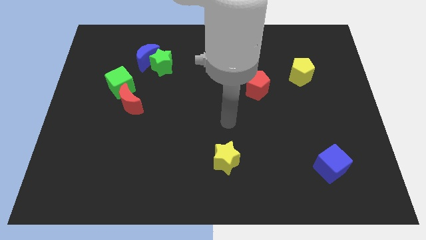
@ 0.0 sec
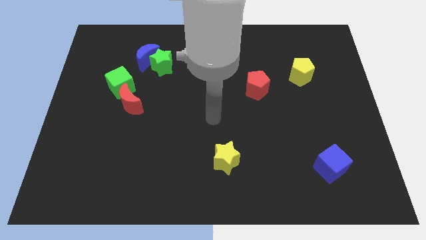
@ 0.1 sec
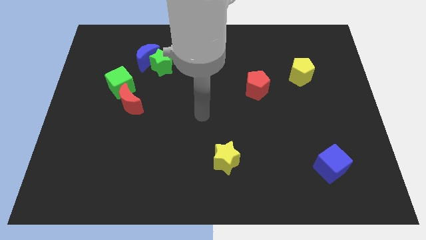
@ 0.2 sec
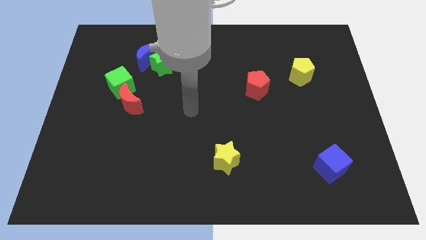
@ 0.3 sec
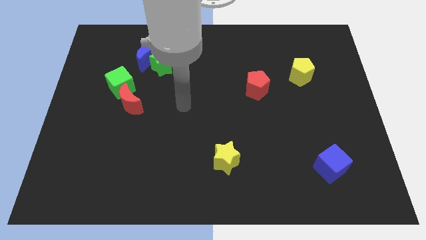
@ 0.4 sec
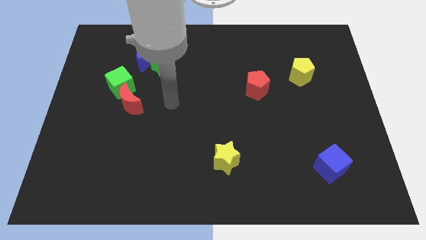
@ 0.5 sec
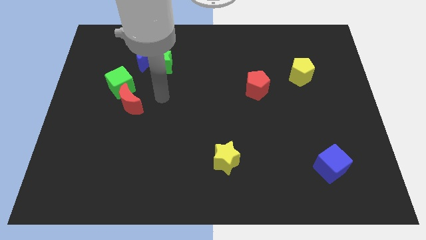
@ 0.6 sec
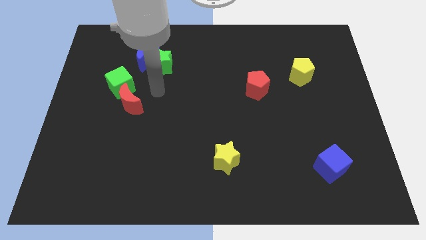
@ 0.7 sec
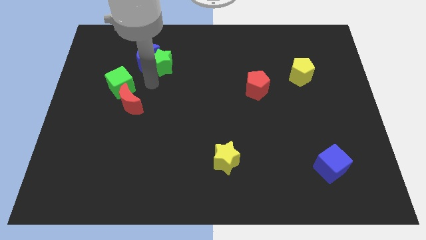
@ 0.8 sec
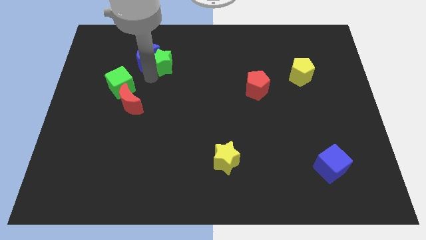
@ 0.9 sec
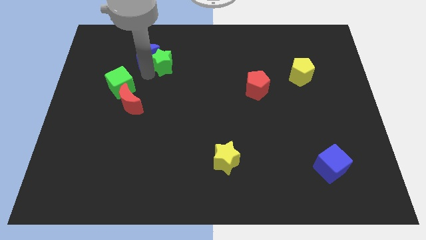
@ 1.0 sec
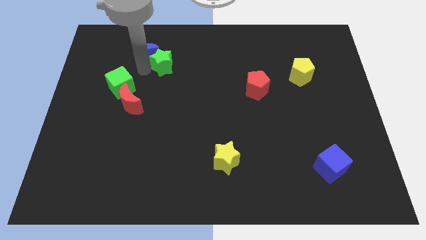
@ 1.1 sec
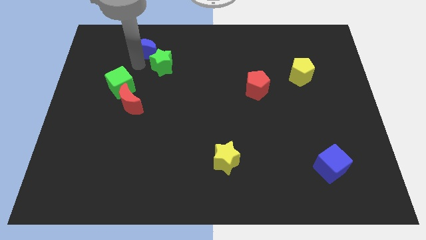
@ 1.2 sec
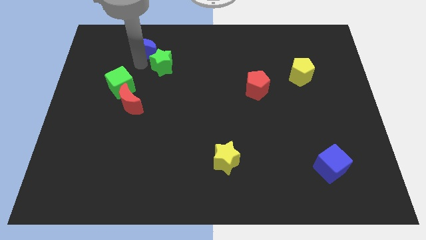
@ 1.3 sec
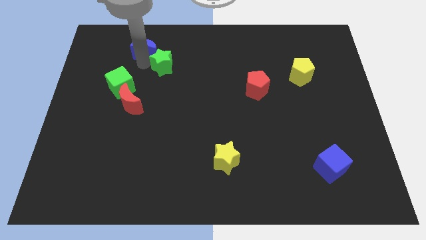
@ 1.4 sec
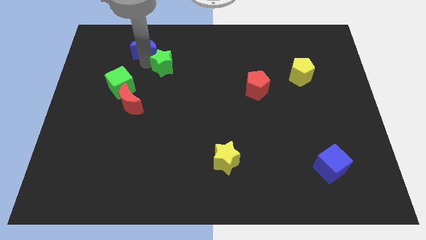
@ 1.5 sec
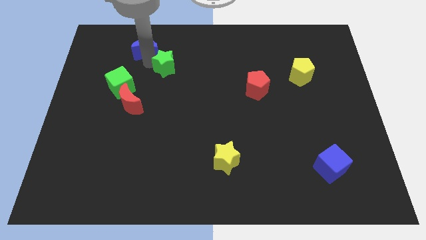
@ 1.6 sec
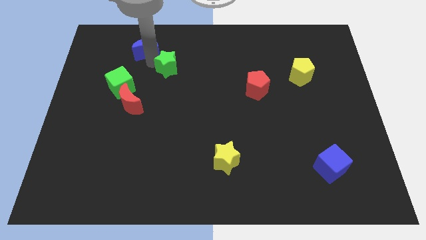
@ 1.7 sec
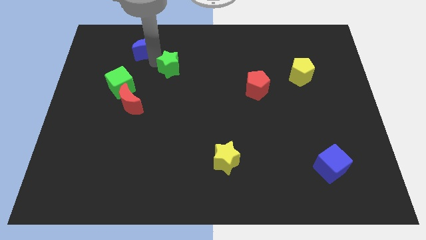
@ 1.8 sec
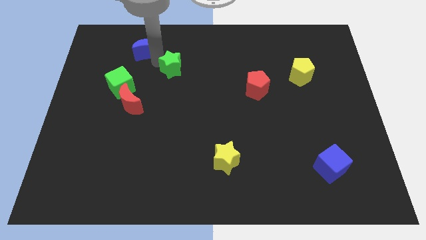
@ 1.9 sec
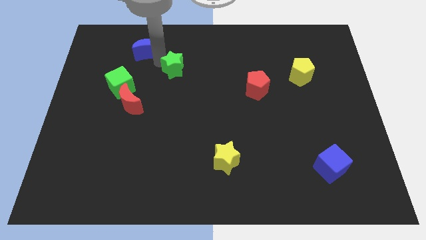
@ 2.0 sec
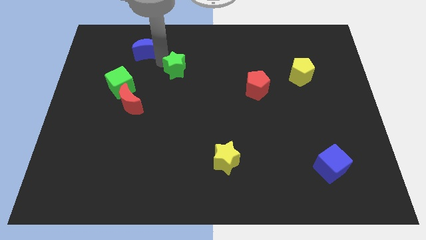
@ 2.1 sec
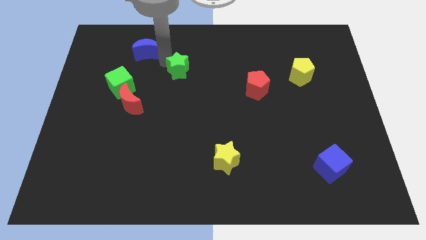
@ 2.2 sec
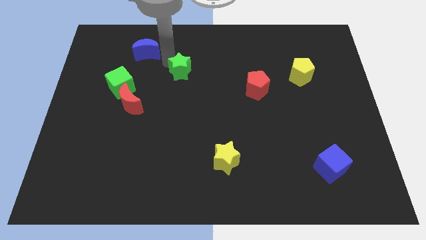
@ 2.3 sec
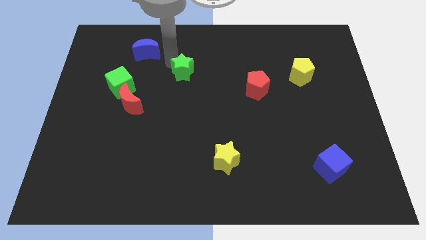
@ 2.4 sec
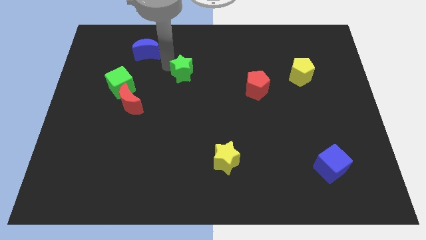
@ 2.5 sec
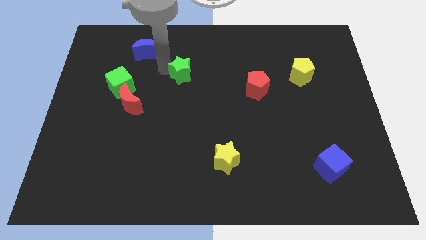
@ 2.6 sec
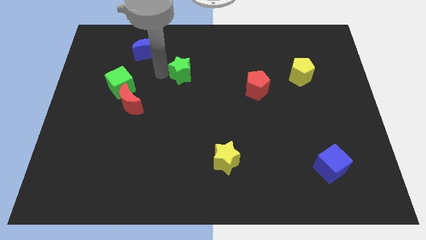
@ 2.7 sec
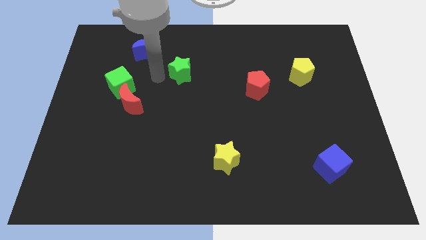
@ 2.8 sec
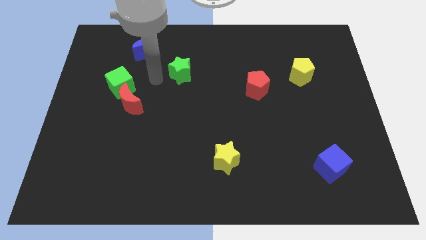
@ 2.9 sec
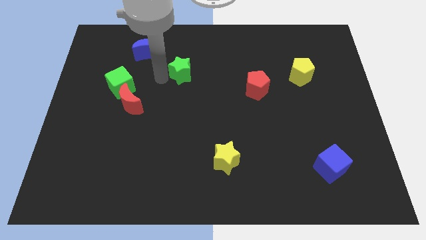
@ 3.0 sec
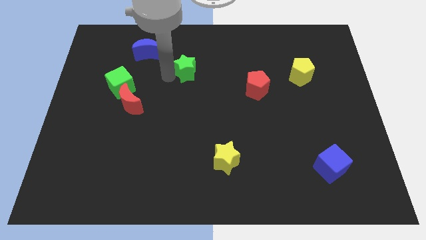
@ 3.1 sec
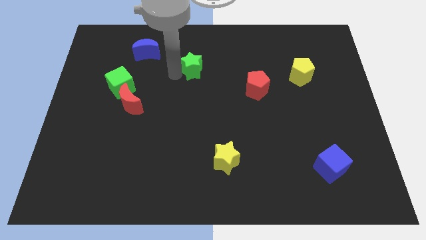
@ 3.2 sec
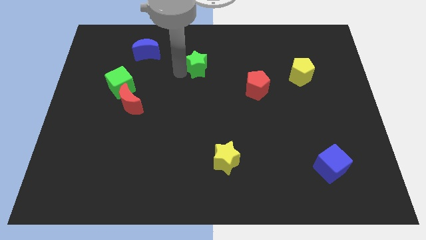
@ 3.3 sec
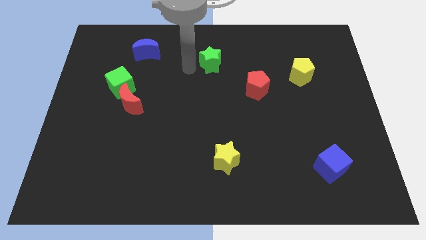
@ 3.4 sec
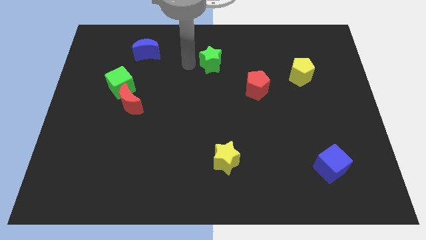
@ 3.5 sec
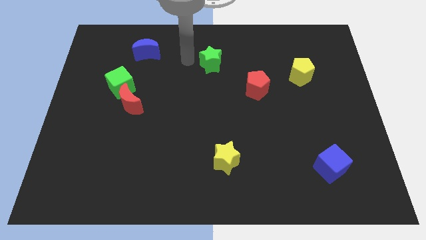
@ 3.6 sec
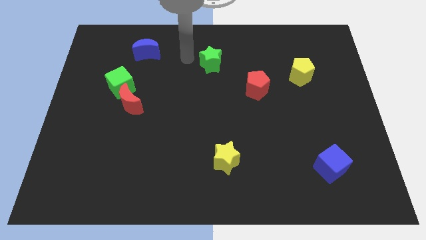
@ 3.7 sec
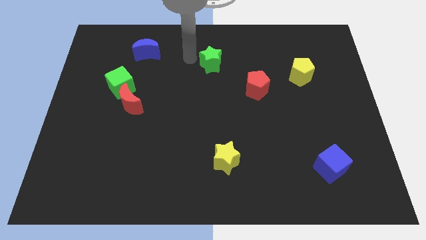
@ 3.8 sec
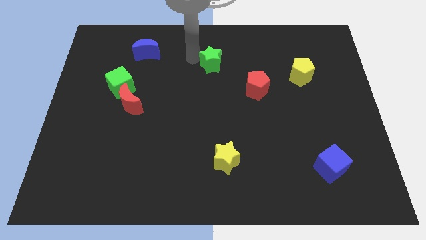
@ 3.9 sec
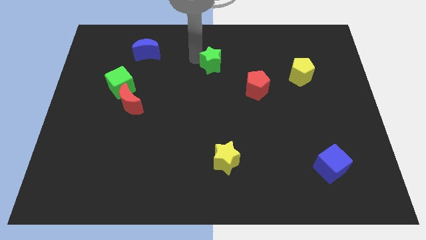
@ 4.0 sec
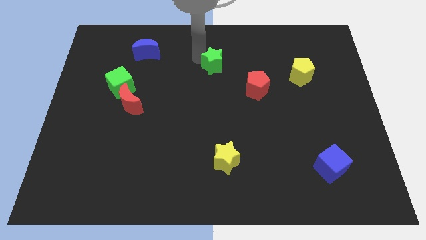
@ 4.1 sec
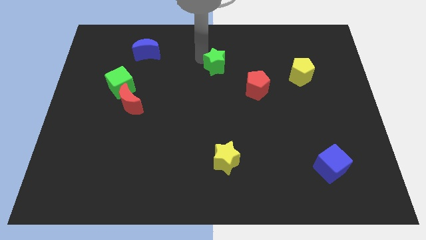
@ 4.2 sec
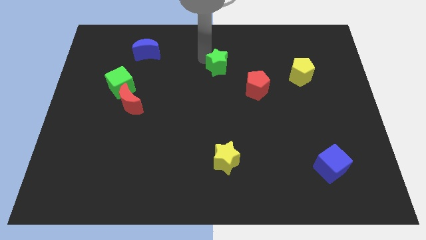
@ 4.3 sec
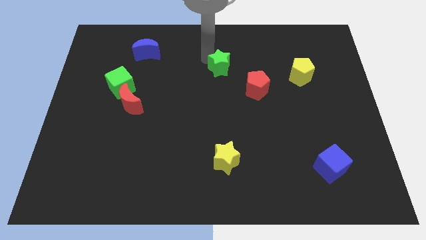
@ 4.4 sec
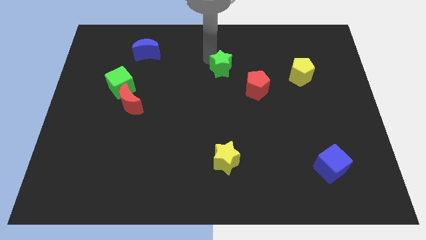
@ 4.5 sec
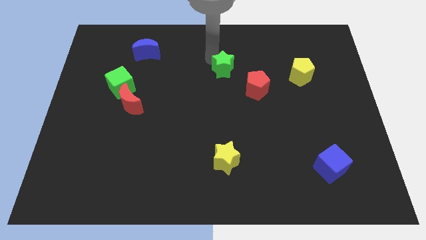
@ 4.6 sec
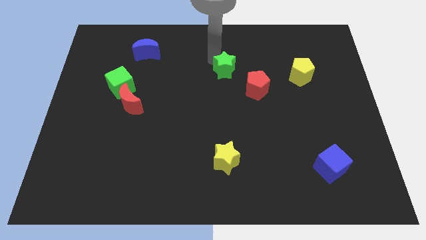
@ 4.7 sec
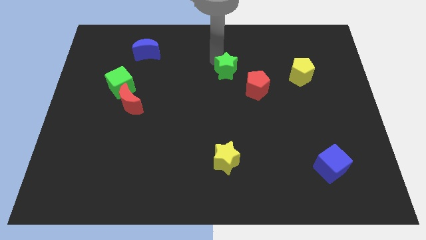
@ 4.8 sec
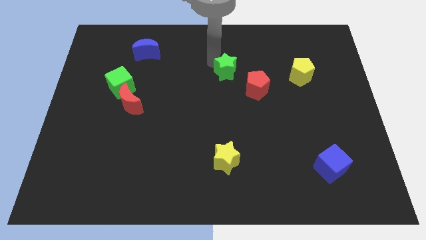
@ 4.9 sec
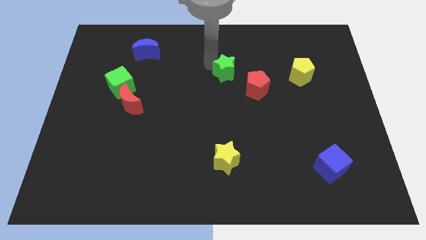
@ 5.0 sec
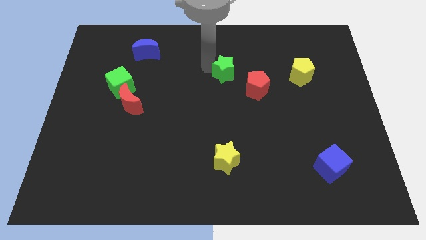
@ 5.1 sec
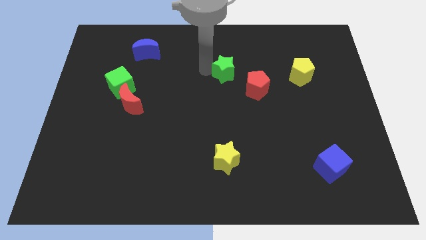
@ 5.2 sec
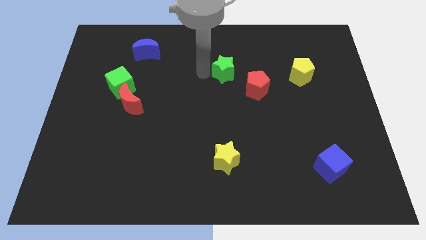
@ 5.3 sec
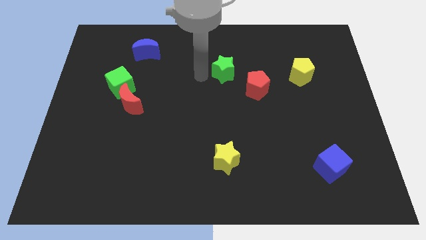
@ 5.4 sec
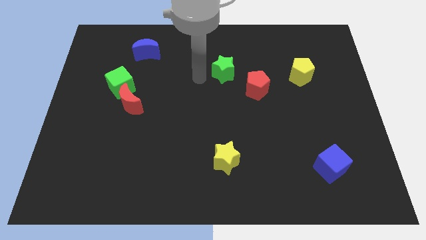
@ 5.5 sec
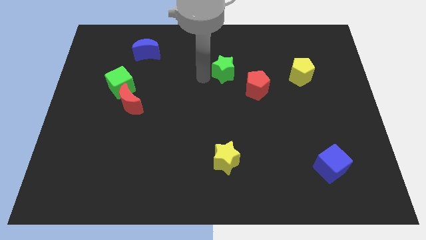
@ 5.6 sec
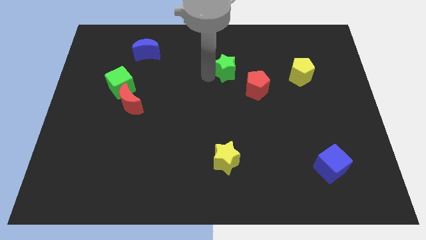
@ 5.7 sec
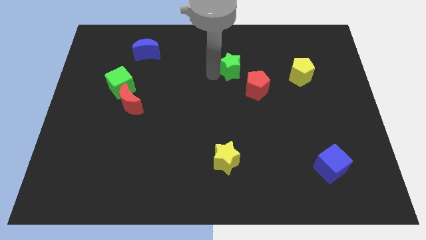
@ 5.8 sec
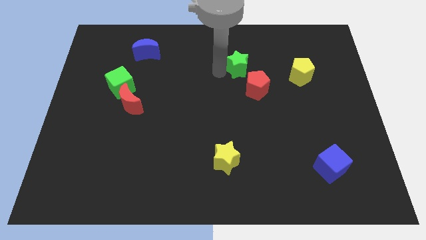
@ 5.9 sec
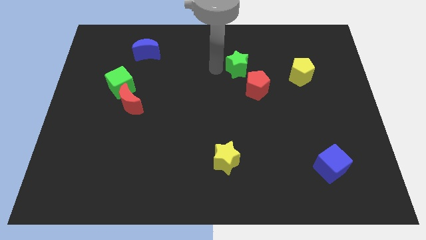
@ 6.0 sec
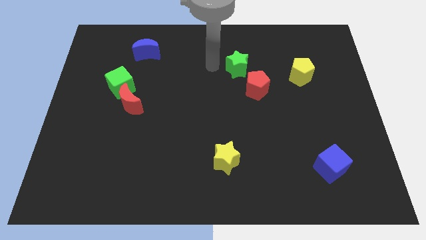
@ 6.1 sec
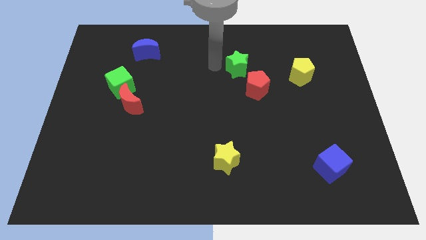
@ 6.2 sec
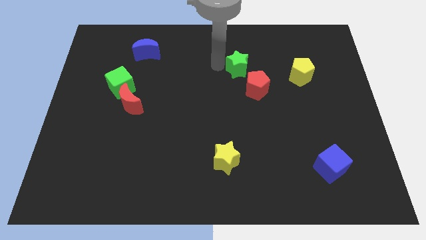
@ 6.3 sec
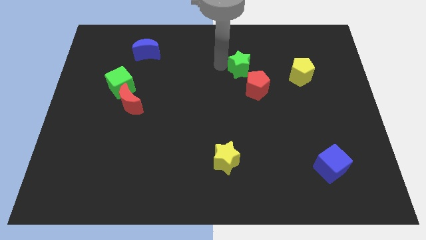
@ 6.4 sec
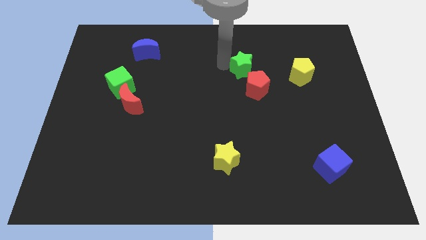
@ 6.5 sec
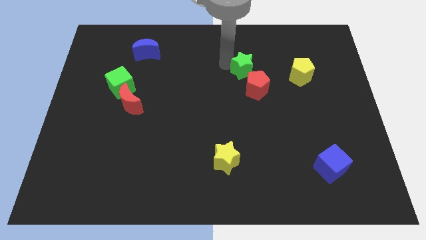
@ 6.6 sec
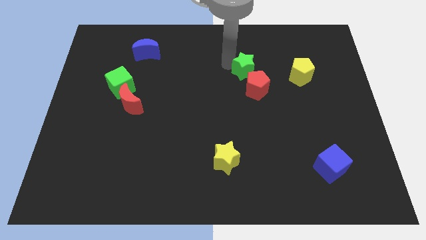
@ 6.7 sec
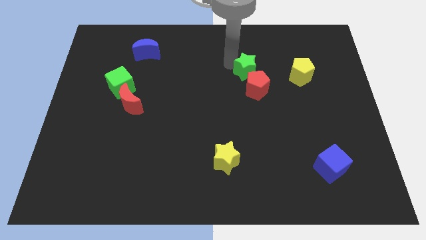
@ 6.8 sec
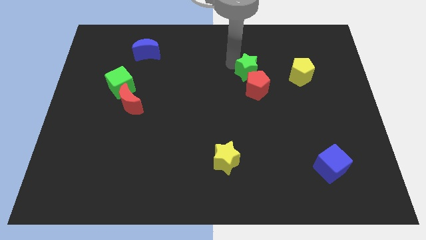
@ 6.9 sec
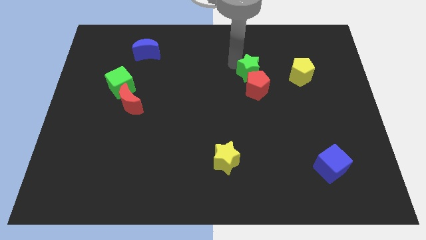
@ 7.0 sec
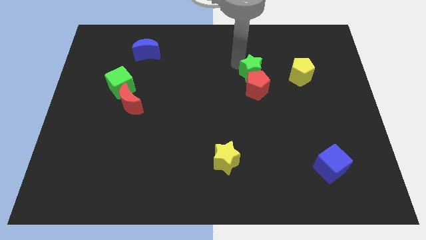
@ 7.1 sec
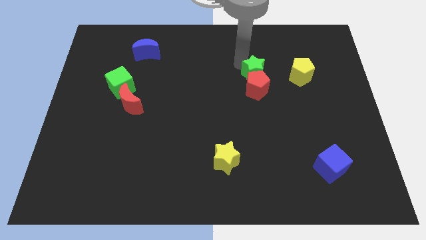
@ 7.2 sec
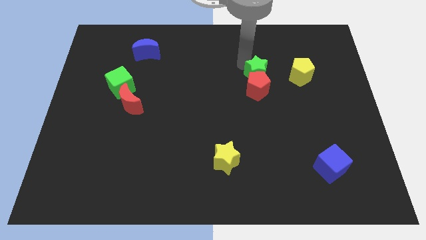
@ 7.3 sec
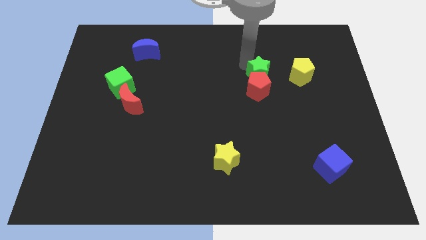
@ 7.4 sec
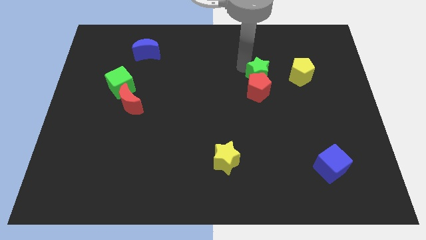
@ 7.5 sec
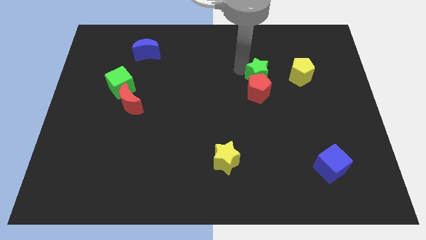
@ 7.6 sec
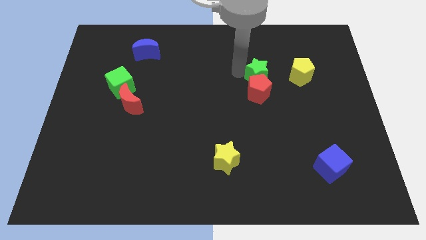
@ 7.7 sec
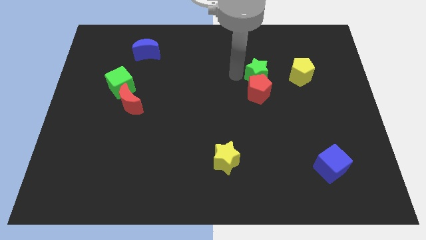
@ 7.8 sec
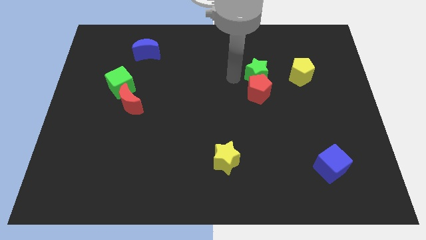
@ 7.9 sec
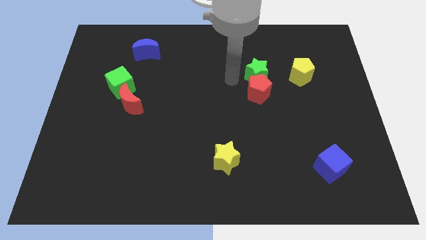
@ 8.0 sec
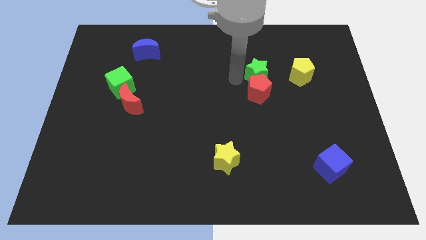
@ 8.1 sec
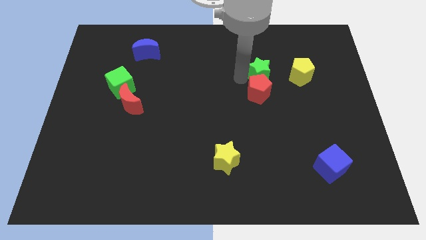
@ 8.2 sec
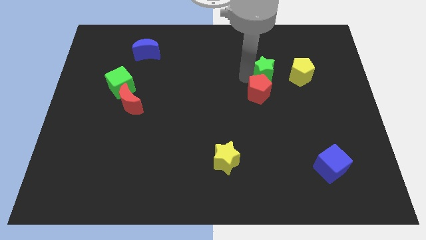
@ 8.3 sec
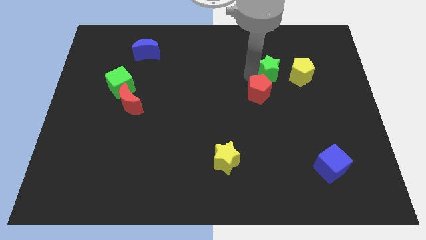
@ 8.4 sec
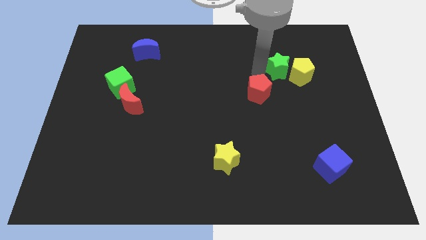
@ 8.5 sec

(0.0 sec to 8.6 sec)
push the green star towards the yellow pentagon
